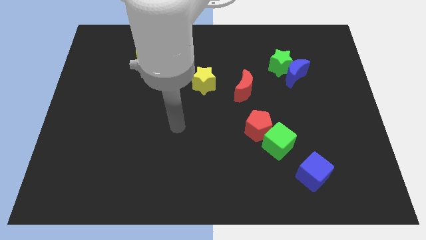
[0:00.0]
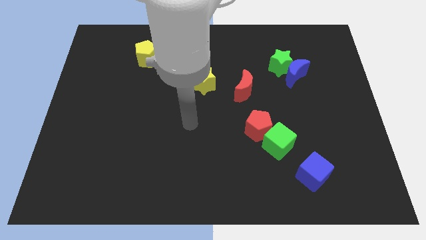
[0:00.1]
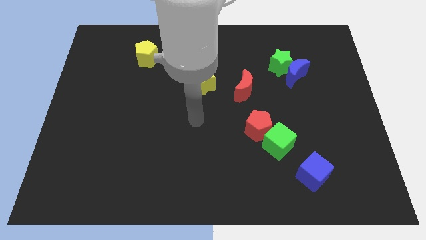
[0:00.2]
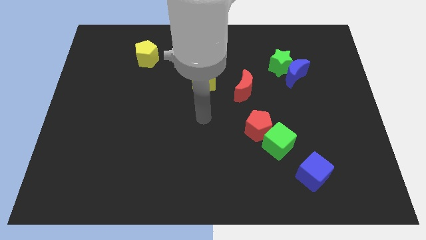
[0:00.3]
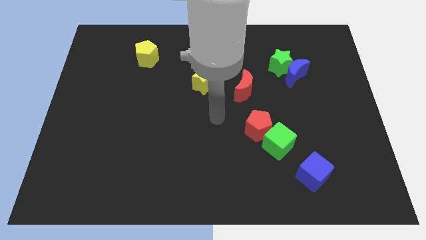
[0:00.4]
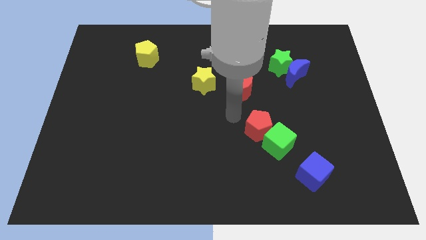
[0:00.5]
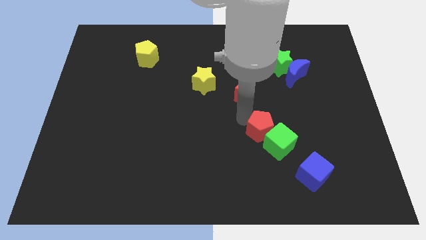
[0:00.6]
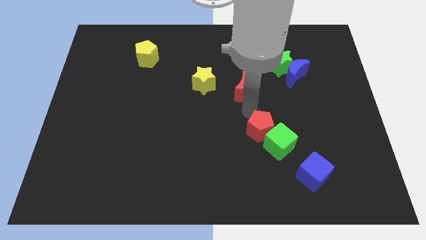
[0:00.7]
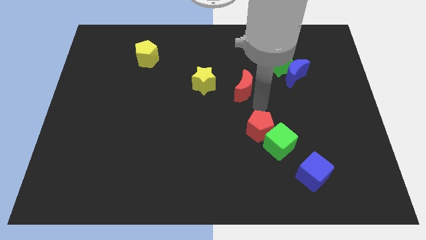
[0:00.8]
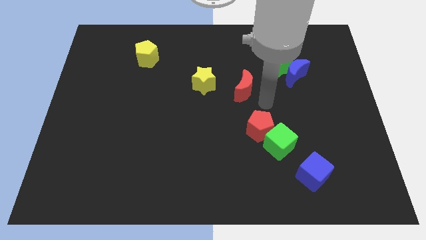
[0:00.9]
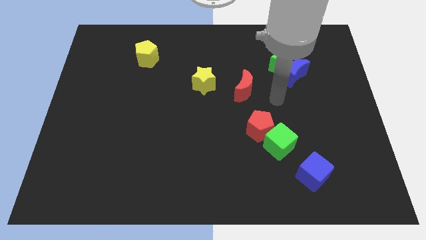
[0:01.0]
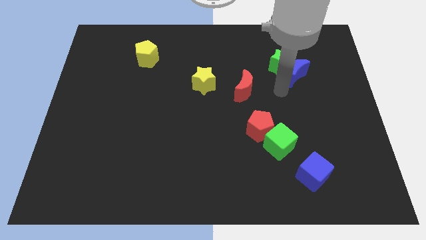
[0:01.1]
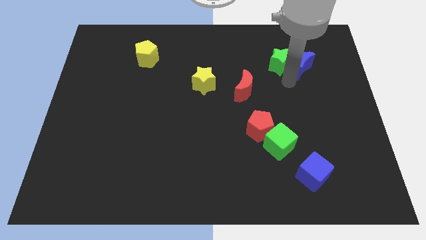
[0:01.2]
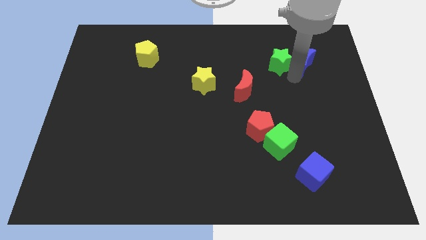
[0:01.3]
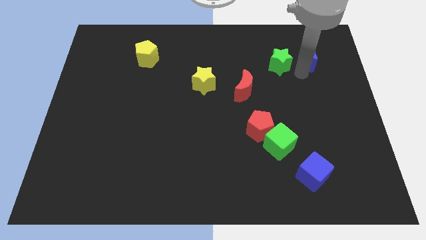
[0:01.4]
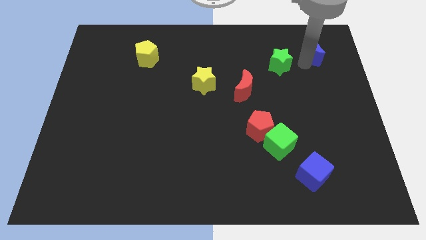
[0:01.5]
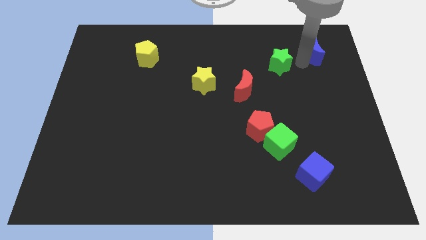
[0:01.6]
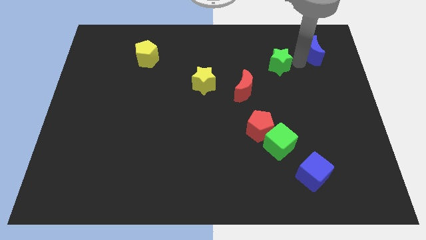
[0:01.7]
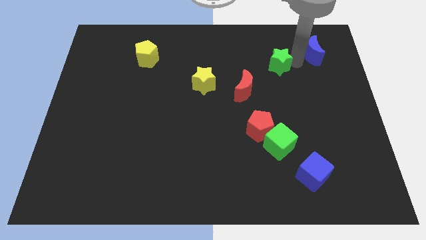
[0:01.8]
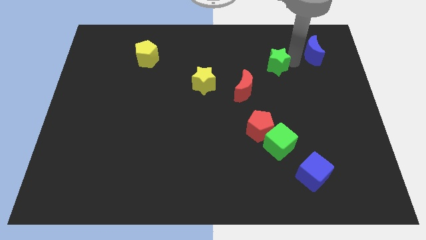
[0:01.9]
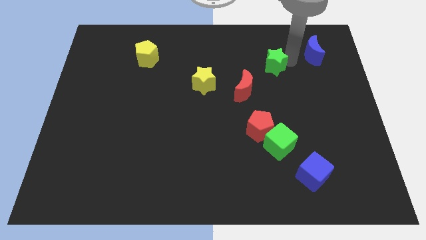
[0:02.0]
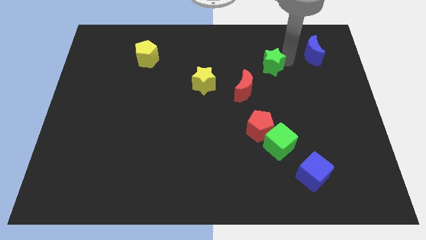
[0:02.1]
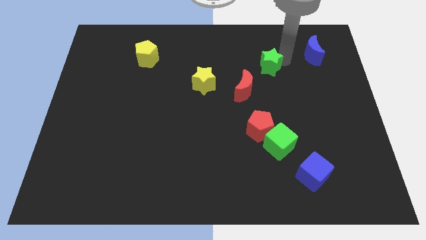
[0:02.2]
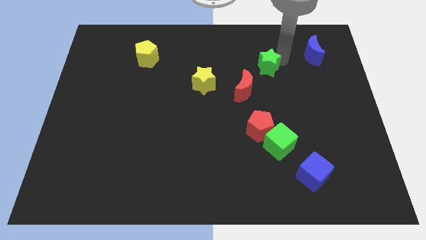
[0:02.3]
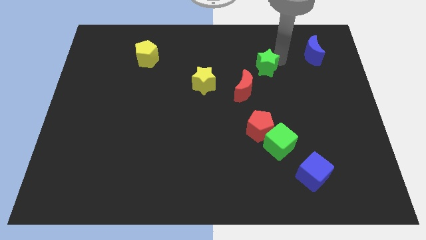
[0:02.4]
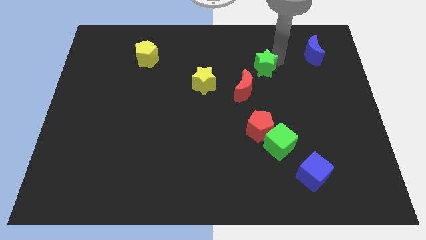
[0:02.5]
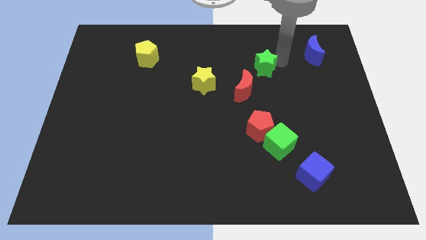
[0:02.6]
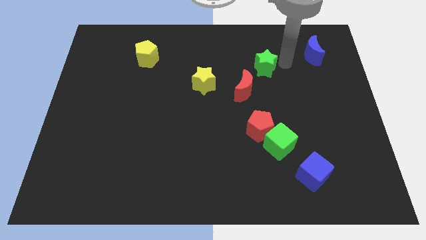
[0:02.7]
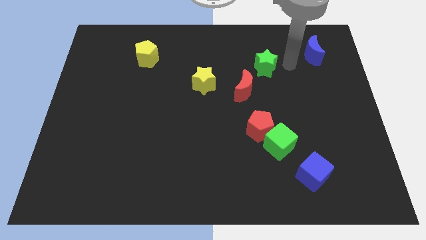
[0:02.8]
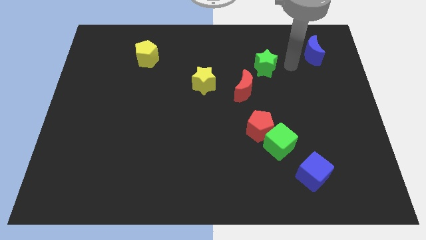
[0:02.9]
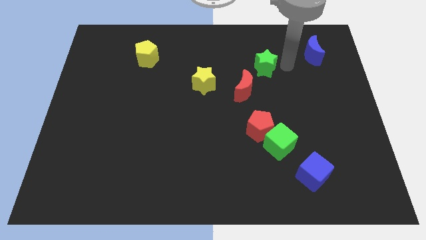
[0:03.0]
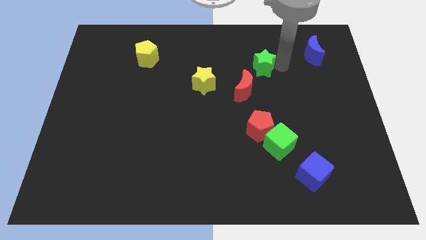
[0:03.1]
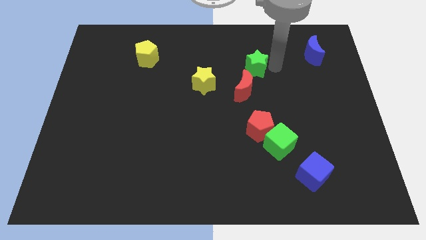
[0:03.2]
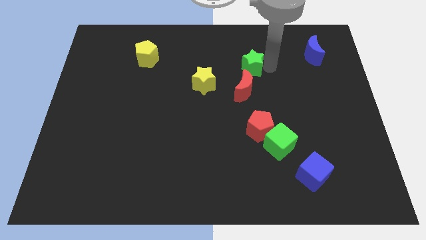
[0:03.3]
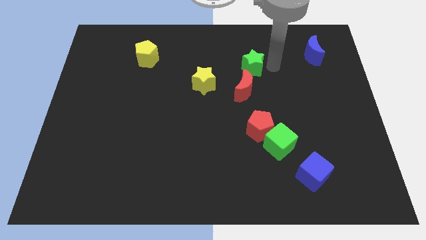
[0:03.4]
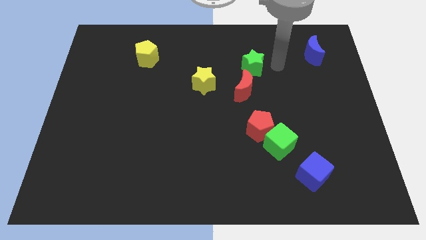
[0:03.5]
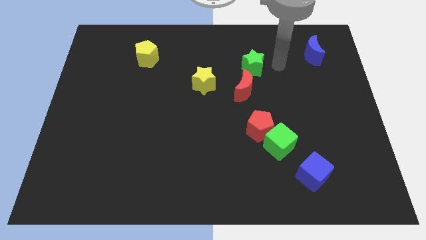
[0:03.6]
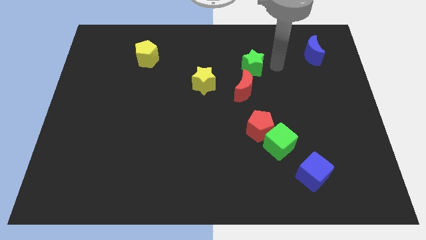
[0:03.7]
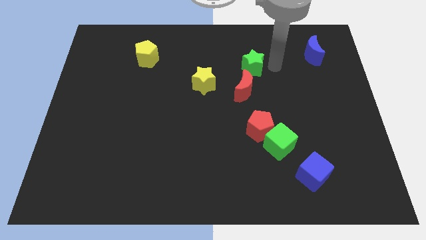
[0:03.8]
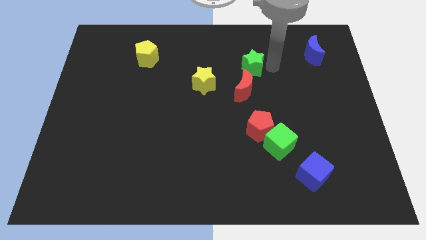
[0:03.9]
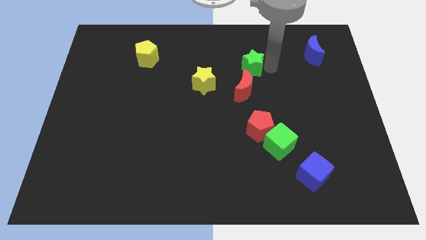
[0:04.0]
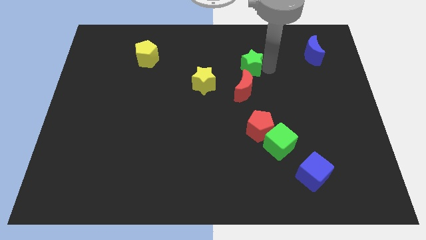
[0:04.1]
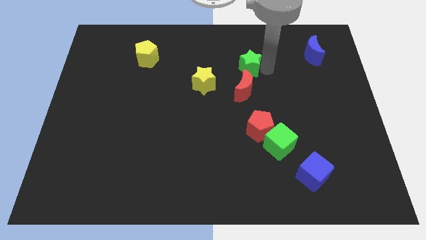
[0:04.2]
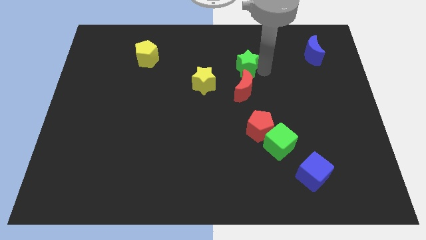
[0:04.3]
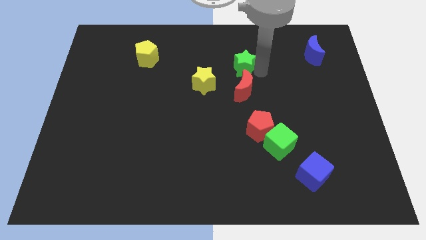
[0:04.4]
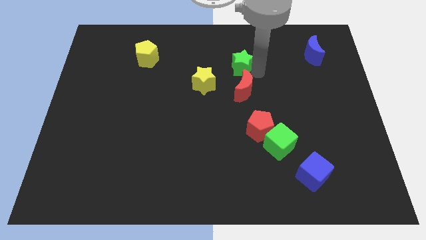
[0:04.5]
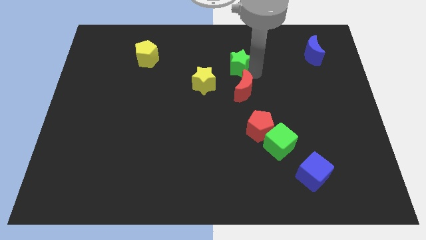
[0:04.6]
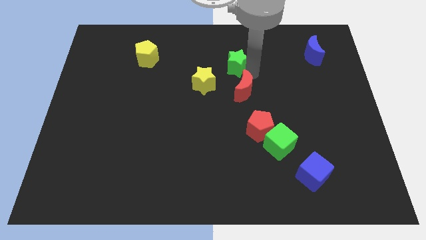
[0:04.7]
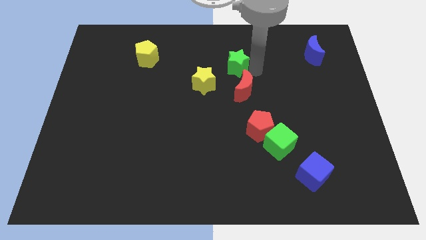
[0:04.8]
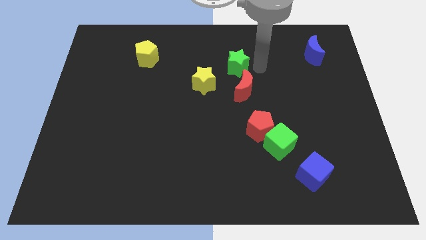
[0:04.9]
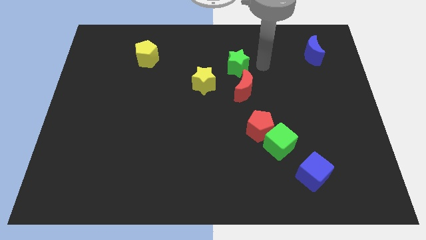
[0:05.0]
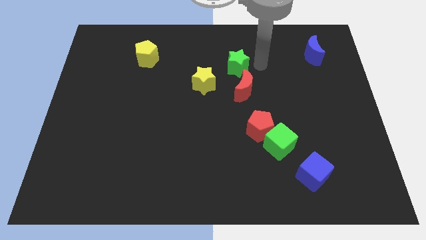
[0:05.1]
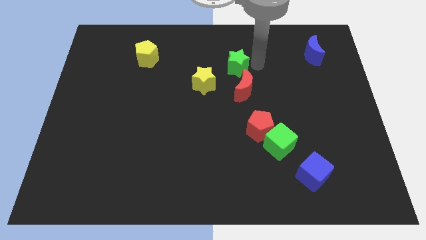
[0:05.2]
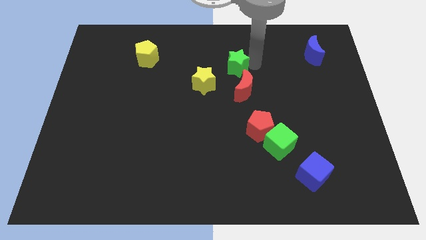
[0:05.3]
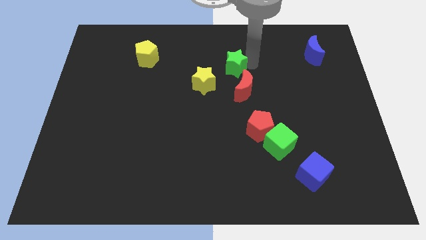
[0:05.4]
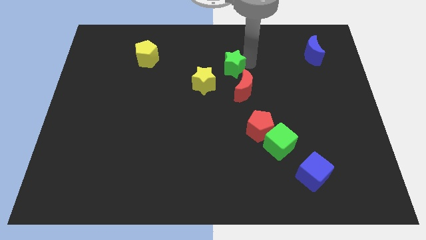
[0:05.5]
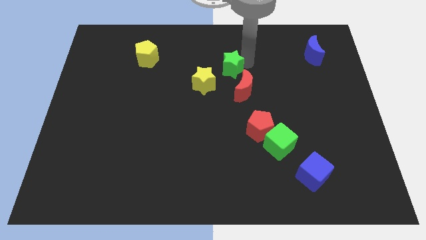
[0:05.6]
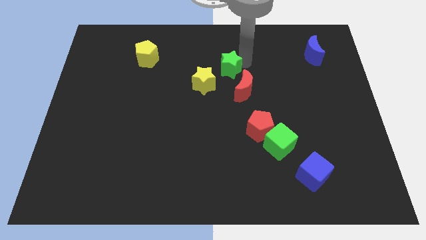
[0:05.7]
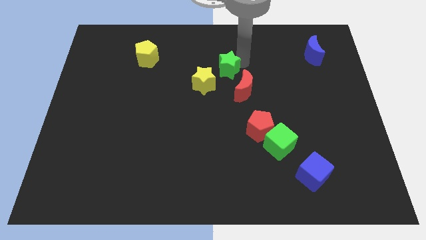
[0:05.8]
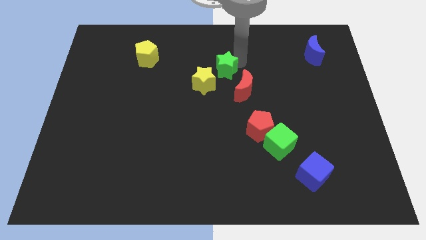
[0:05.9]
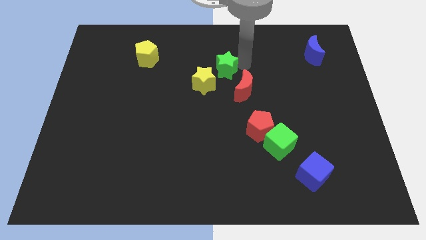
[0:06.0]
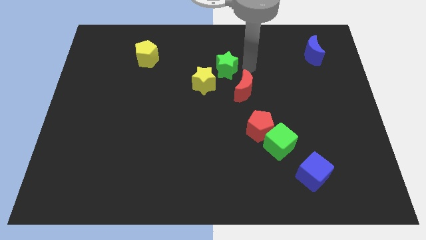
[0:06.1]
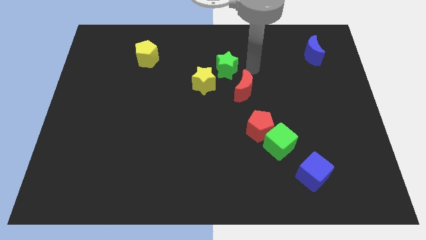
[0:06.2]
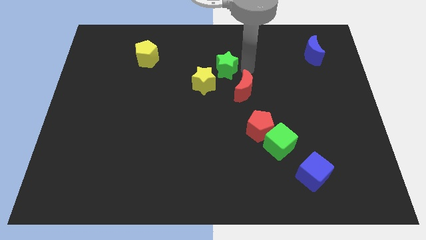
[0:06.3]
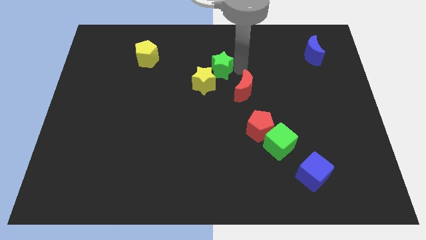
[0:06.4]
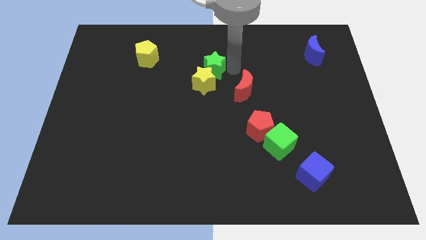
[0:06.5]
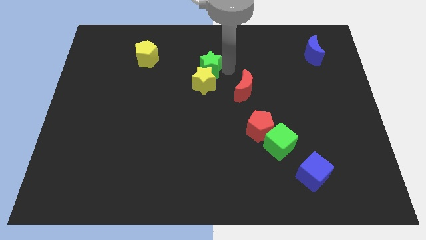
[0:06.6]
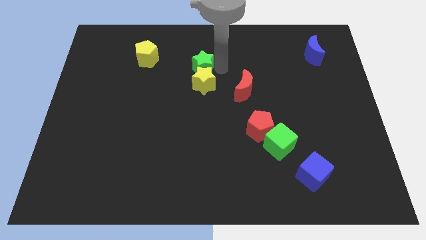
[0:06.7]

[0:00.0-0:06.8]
push the green star left

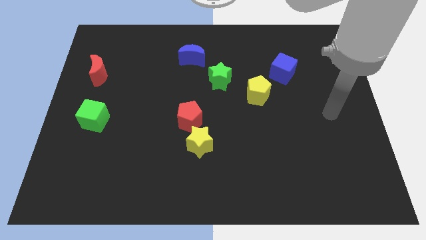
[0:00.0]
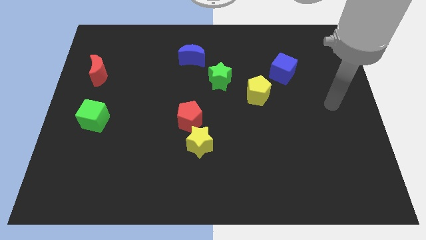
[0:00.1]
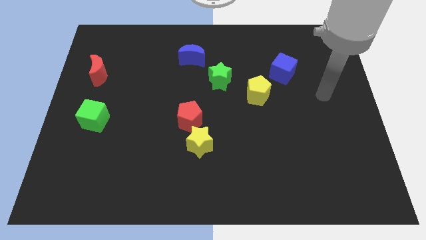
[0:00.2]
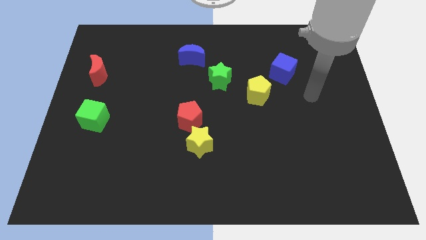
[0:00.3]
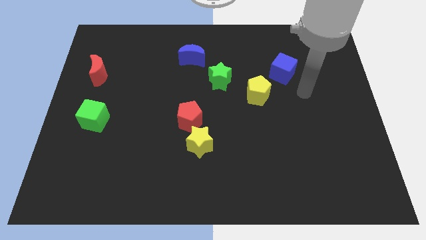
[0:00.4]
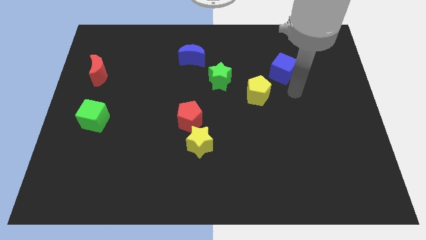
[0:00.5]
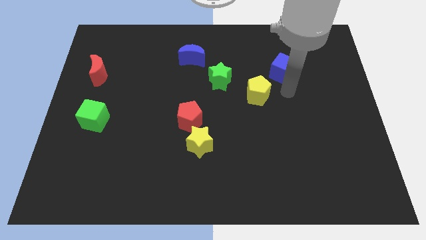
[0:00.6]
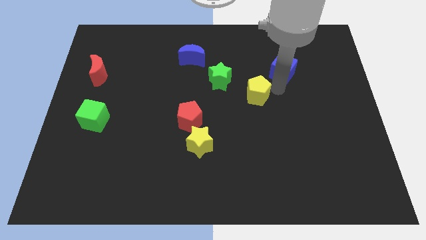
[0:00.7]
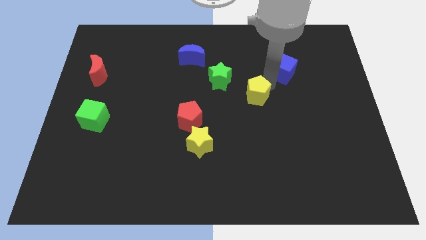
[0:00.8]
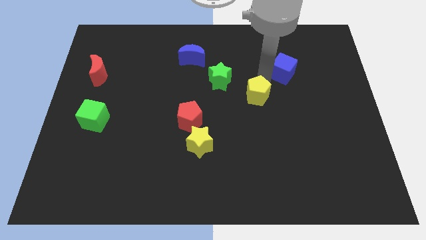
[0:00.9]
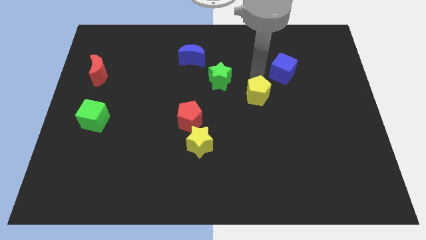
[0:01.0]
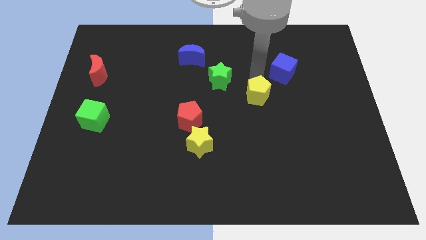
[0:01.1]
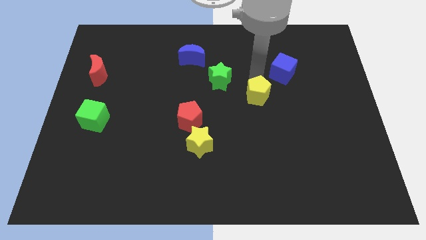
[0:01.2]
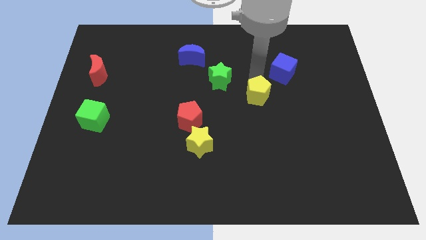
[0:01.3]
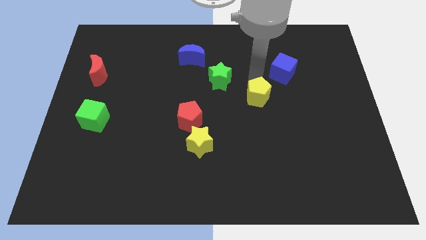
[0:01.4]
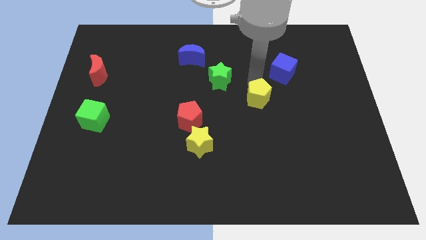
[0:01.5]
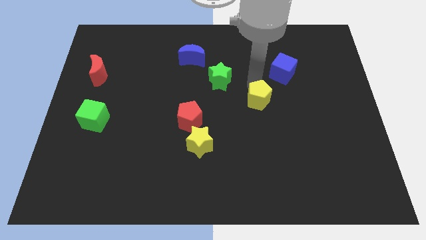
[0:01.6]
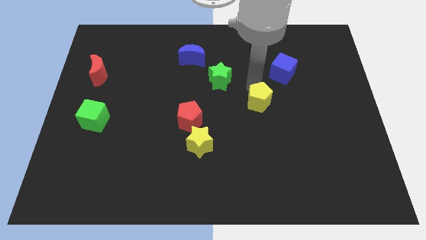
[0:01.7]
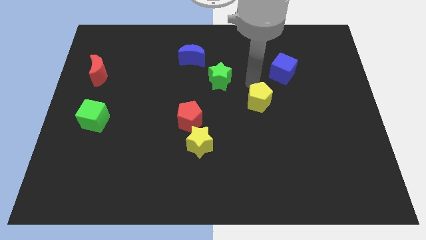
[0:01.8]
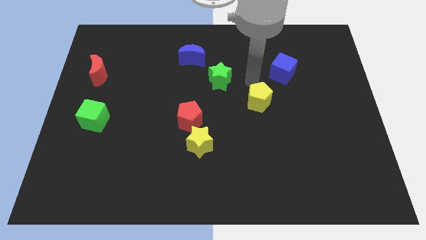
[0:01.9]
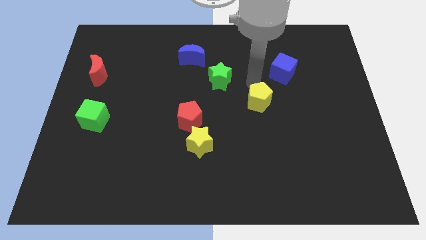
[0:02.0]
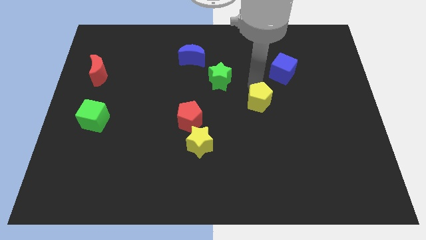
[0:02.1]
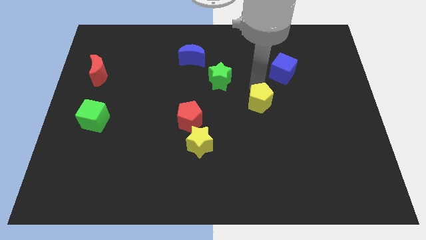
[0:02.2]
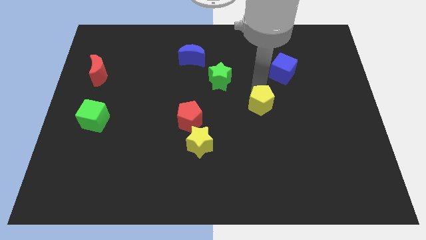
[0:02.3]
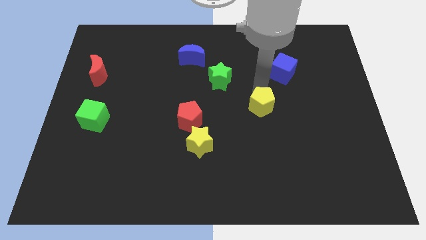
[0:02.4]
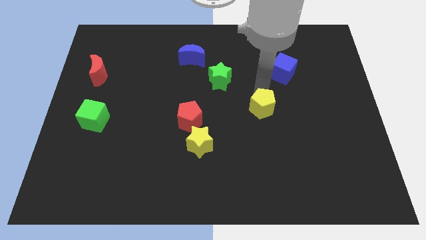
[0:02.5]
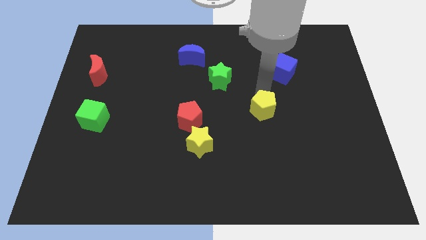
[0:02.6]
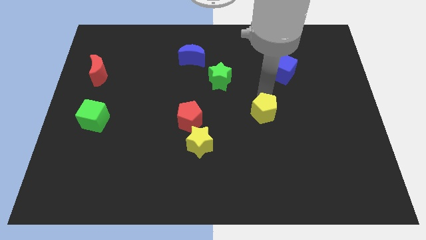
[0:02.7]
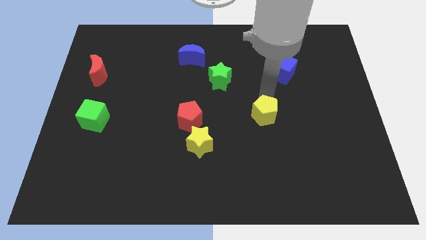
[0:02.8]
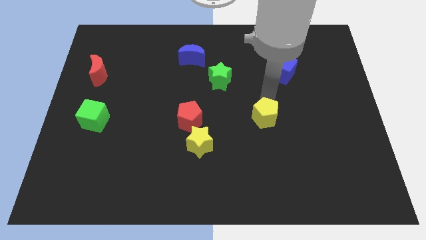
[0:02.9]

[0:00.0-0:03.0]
push the yellow pentagon a little downwards
